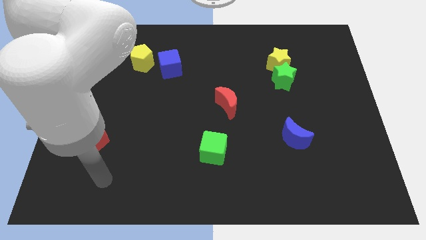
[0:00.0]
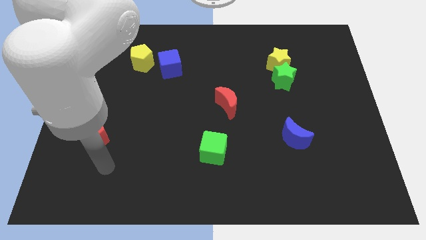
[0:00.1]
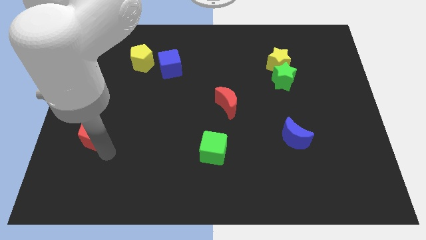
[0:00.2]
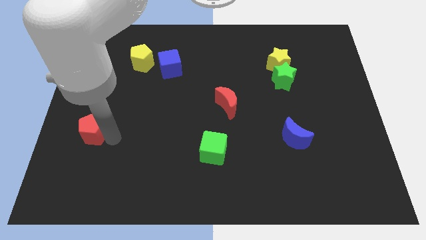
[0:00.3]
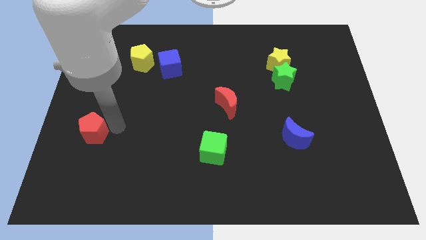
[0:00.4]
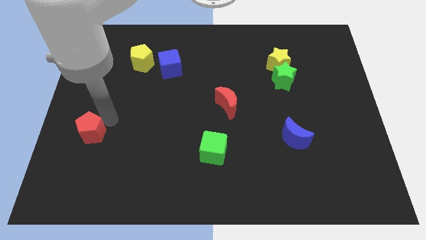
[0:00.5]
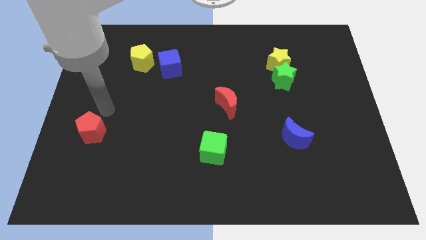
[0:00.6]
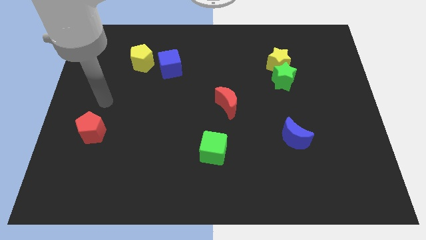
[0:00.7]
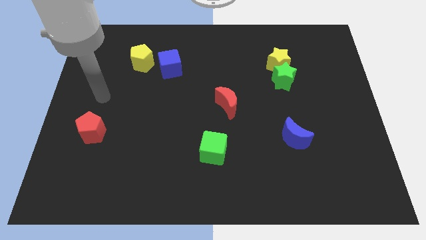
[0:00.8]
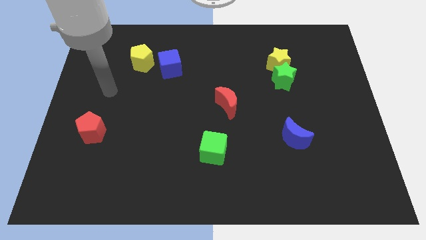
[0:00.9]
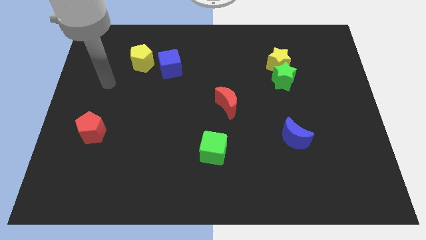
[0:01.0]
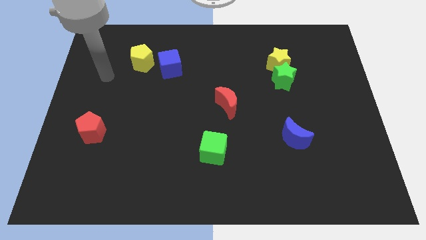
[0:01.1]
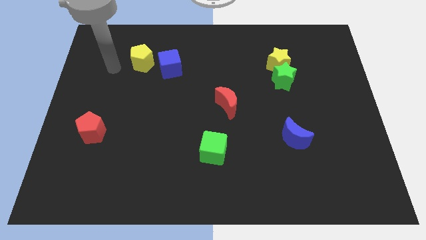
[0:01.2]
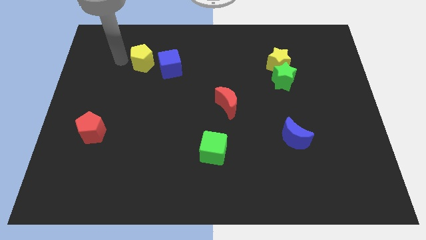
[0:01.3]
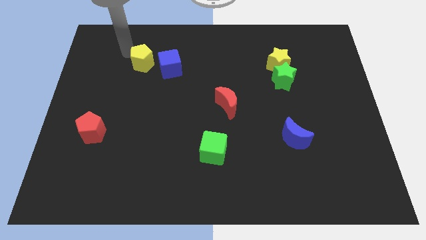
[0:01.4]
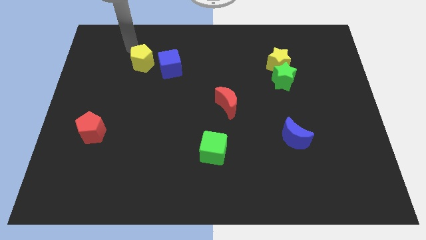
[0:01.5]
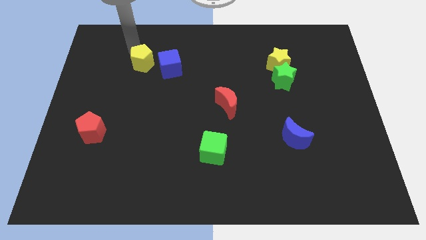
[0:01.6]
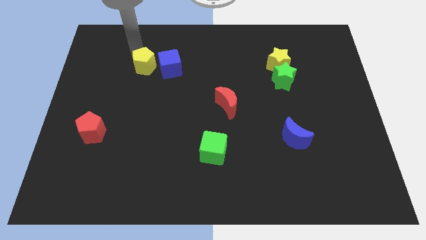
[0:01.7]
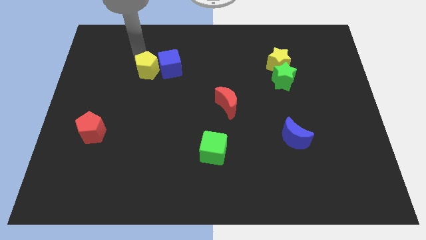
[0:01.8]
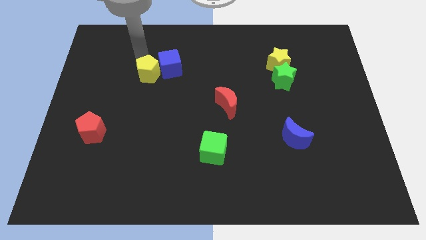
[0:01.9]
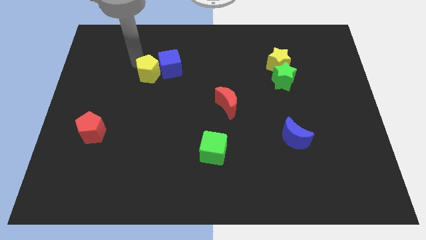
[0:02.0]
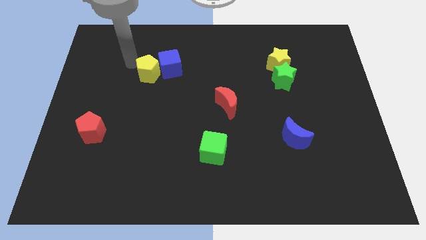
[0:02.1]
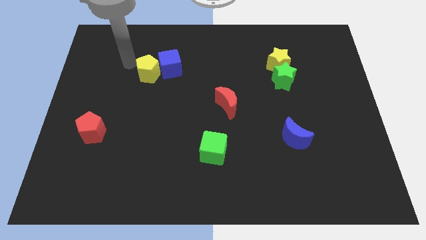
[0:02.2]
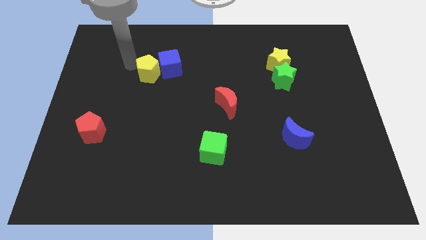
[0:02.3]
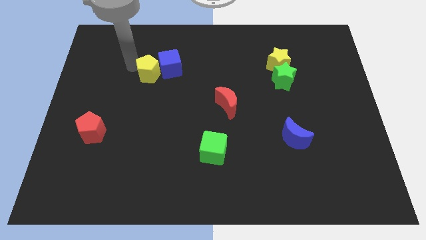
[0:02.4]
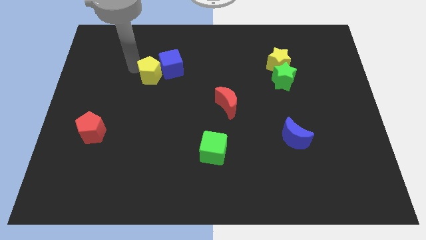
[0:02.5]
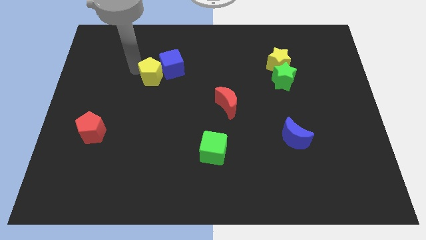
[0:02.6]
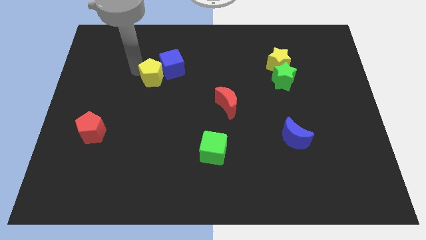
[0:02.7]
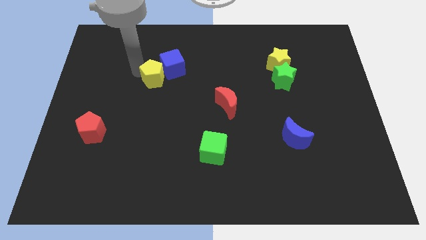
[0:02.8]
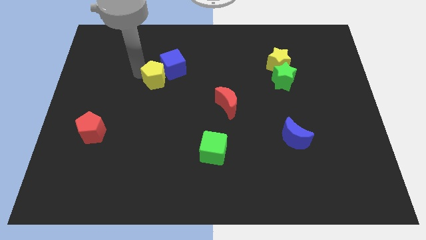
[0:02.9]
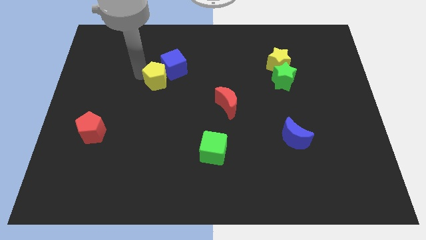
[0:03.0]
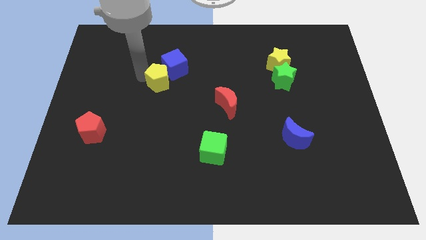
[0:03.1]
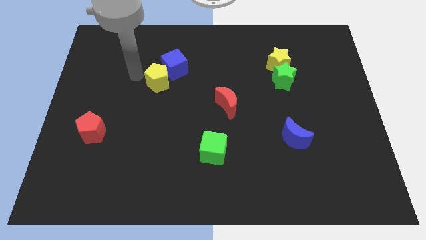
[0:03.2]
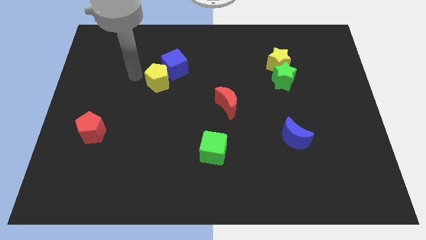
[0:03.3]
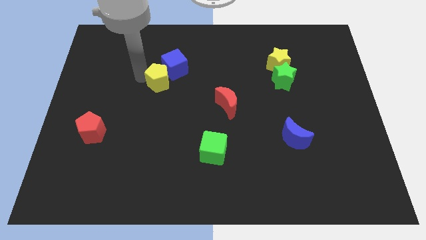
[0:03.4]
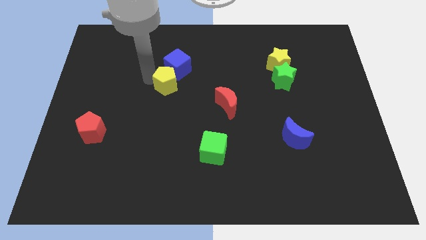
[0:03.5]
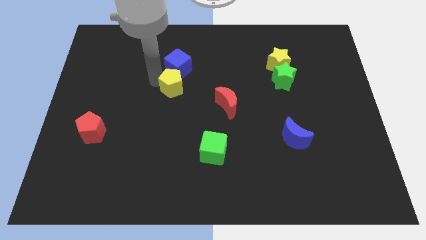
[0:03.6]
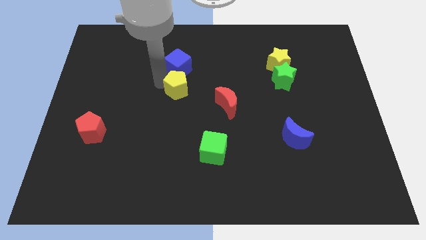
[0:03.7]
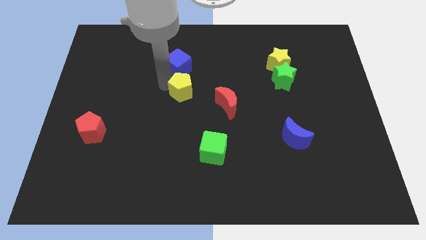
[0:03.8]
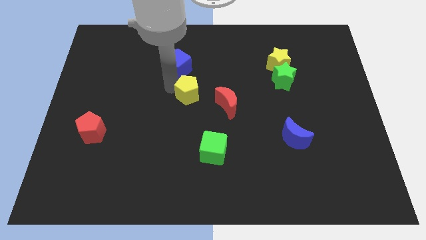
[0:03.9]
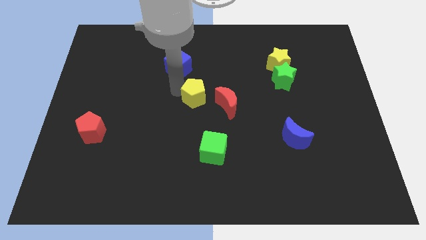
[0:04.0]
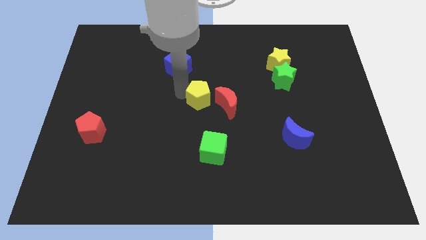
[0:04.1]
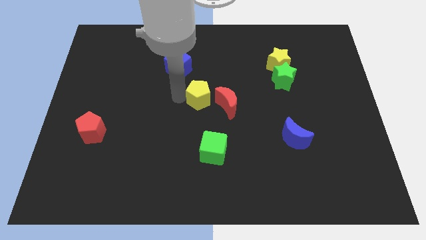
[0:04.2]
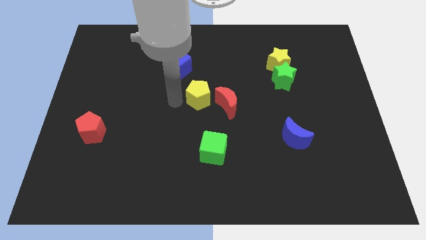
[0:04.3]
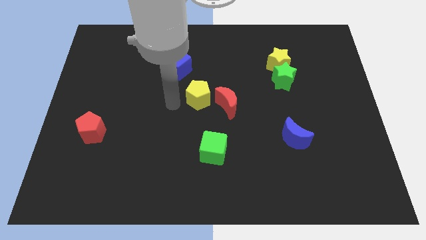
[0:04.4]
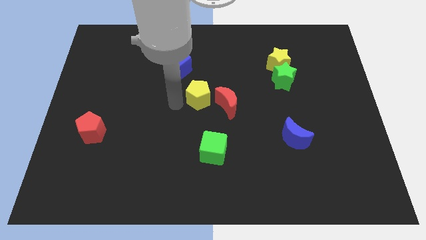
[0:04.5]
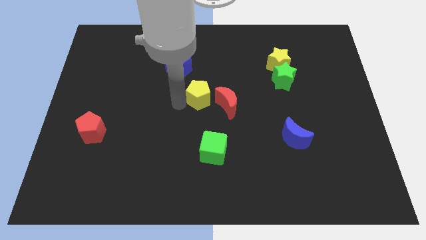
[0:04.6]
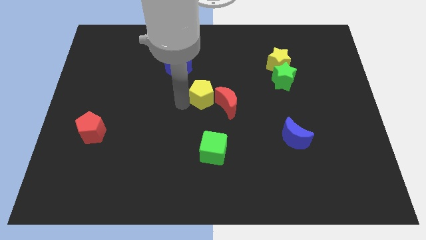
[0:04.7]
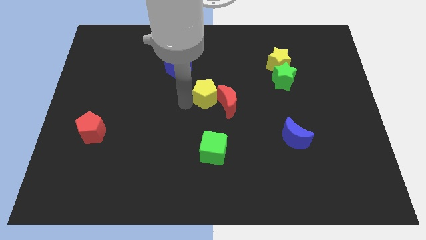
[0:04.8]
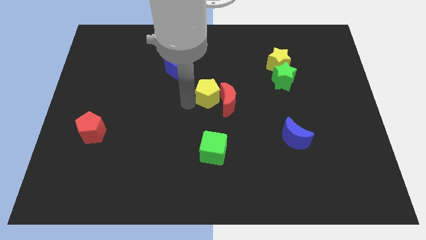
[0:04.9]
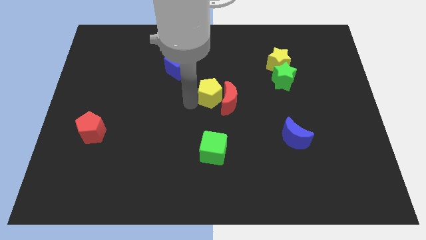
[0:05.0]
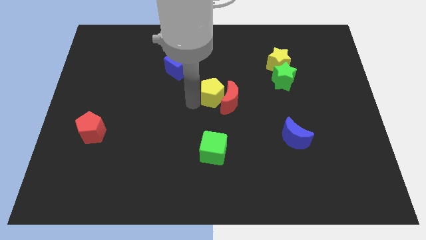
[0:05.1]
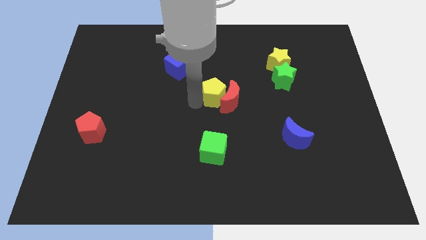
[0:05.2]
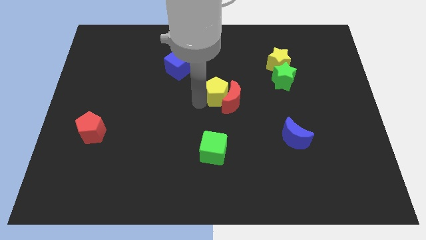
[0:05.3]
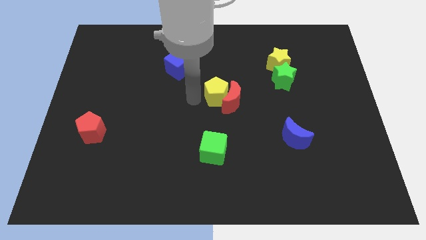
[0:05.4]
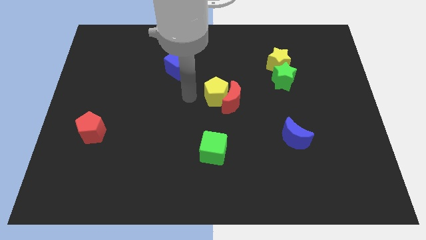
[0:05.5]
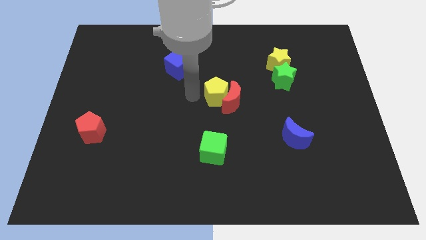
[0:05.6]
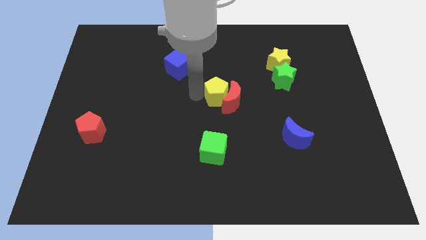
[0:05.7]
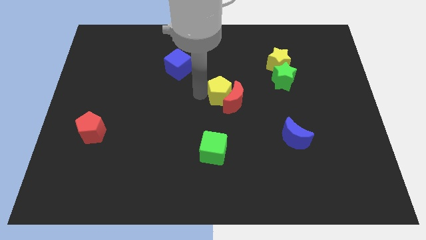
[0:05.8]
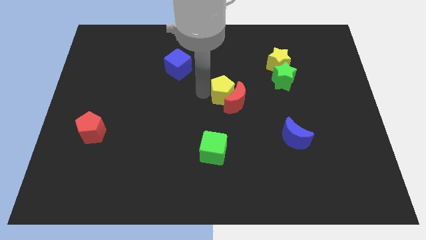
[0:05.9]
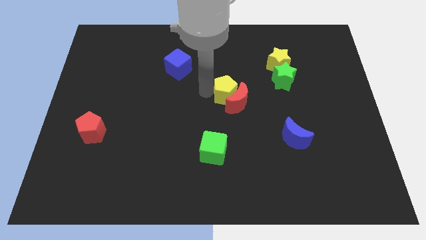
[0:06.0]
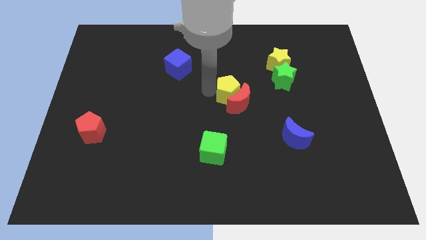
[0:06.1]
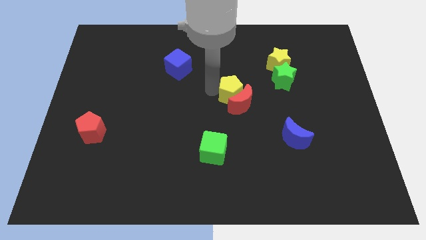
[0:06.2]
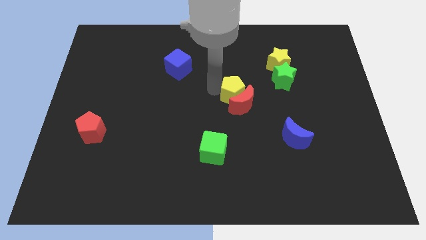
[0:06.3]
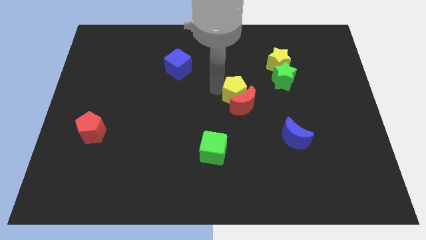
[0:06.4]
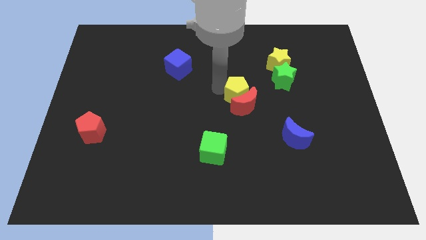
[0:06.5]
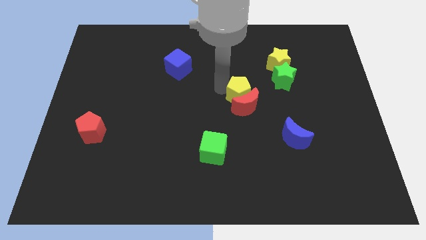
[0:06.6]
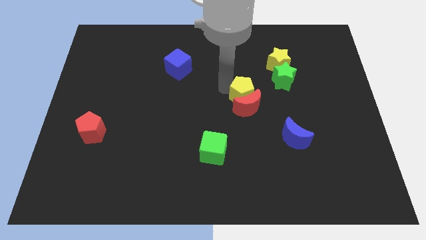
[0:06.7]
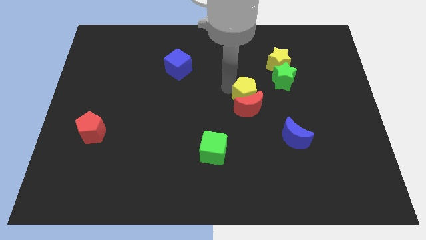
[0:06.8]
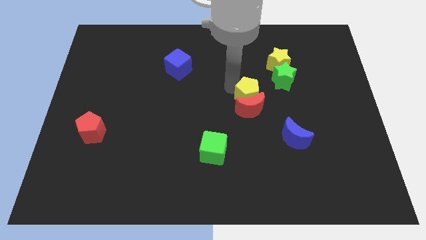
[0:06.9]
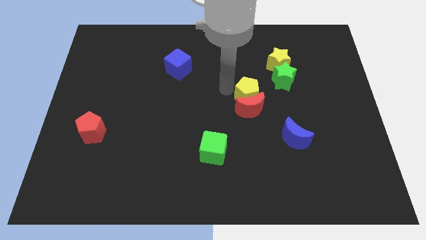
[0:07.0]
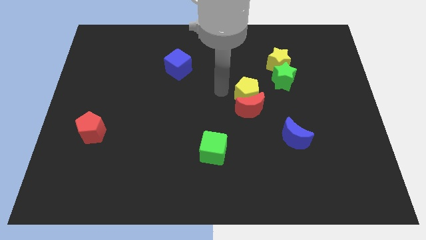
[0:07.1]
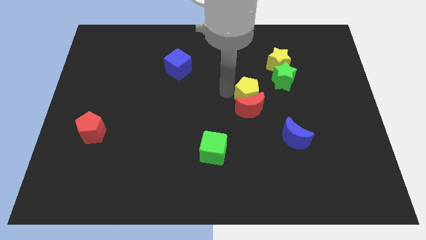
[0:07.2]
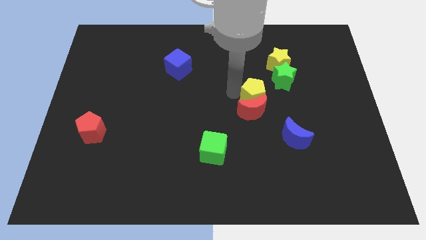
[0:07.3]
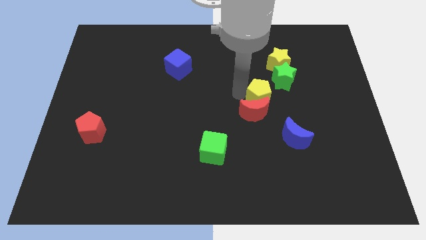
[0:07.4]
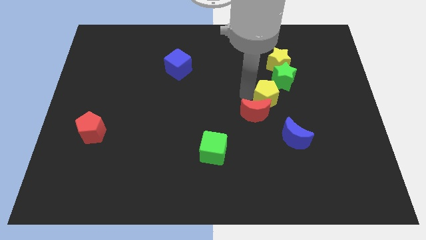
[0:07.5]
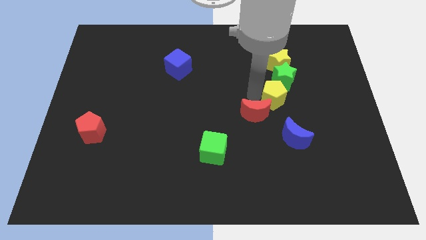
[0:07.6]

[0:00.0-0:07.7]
put the yellow pentagon above the blue moon

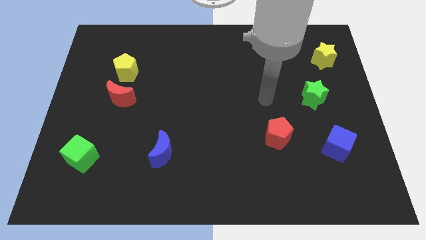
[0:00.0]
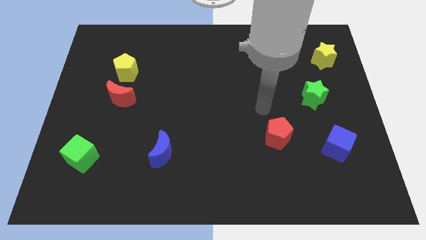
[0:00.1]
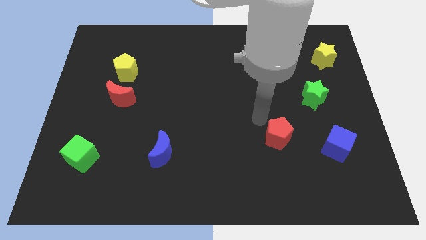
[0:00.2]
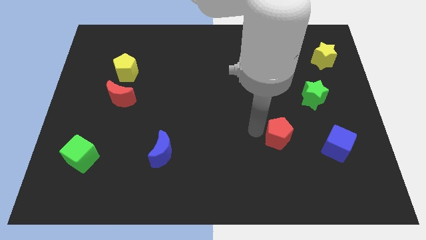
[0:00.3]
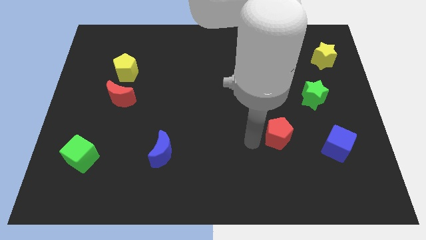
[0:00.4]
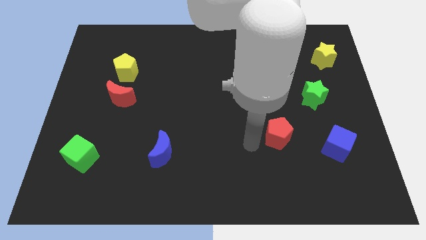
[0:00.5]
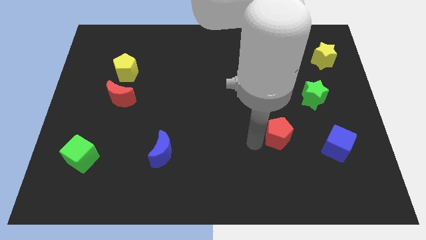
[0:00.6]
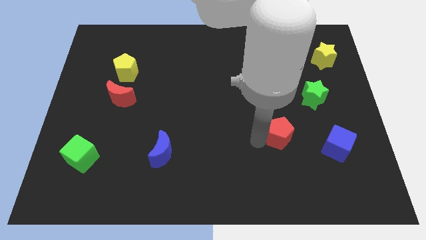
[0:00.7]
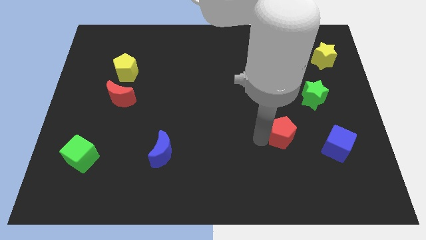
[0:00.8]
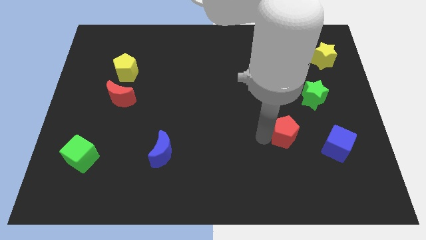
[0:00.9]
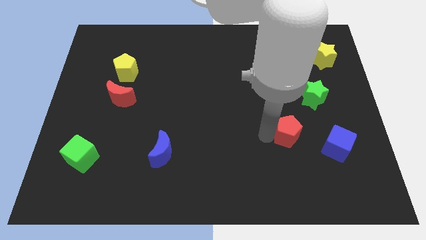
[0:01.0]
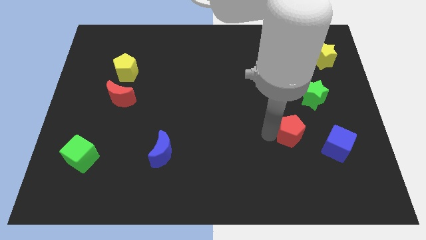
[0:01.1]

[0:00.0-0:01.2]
move the red pentagon diagonally up and to the left of the blue cube
